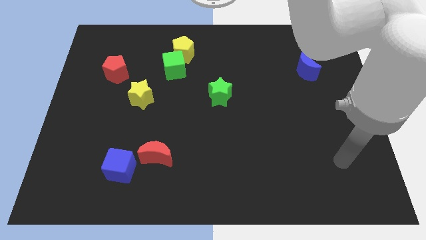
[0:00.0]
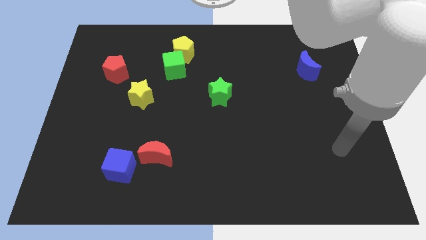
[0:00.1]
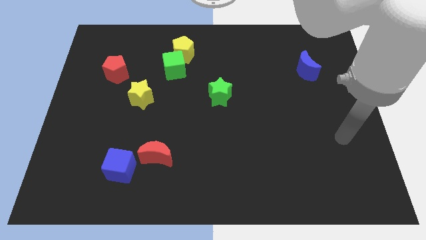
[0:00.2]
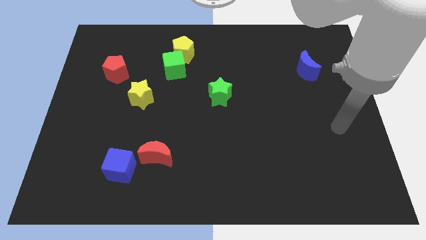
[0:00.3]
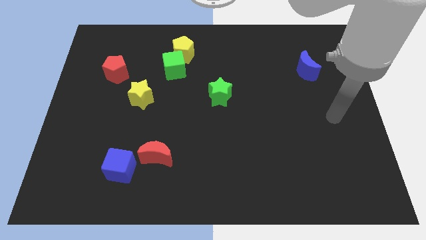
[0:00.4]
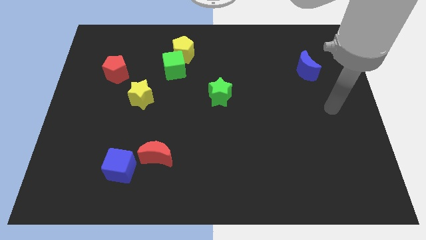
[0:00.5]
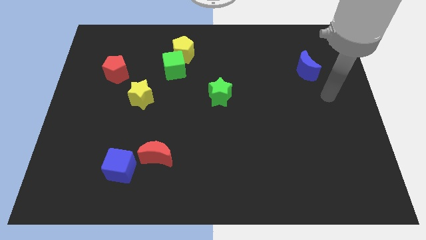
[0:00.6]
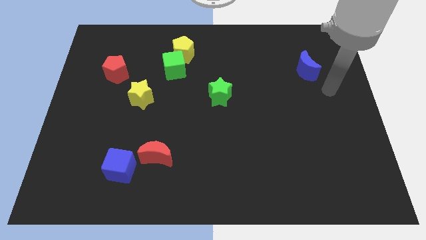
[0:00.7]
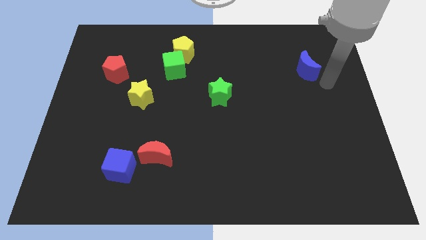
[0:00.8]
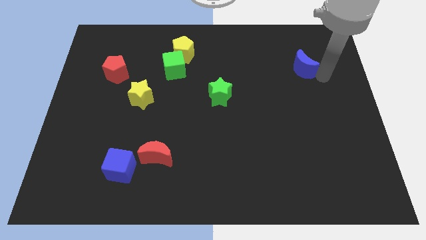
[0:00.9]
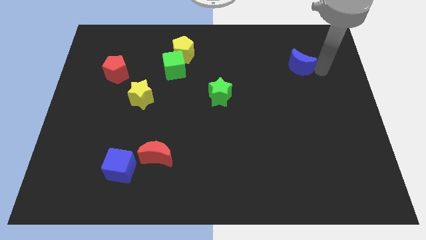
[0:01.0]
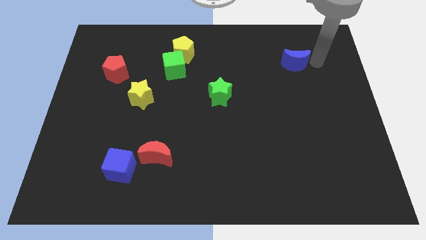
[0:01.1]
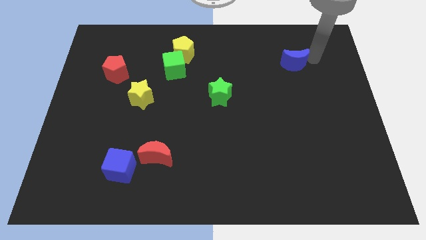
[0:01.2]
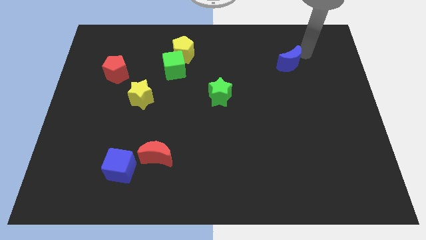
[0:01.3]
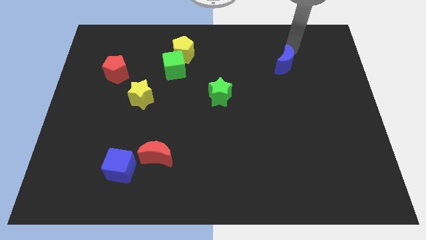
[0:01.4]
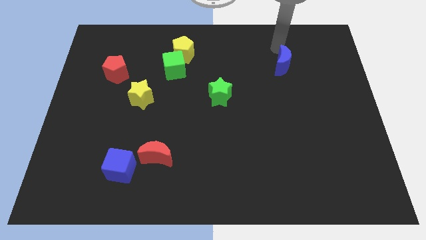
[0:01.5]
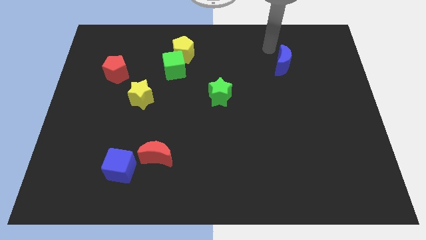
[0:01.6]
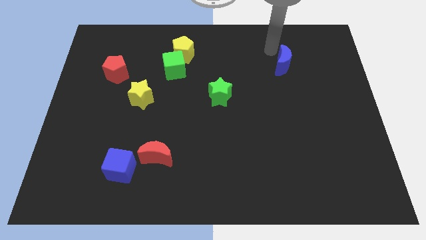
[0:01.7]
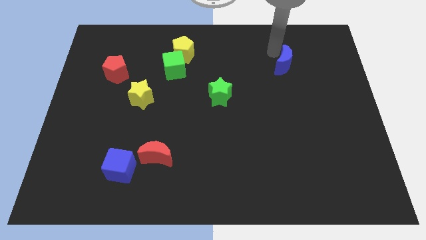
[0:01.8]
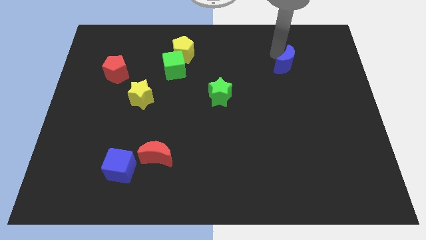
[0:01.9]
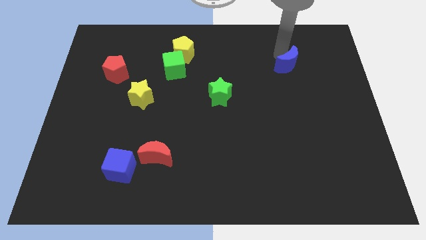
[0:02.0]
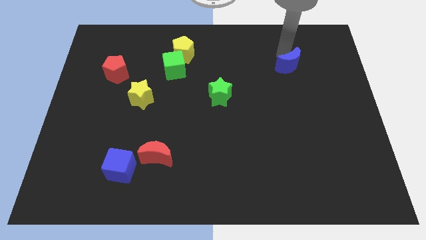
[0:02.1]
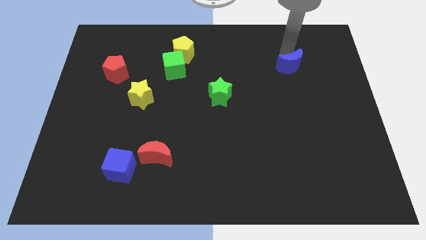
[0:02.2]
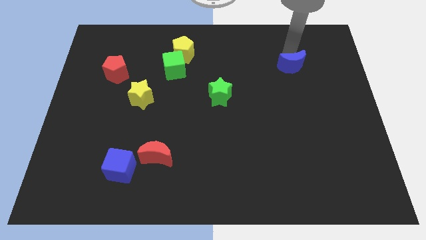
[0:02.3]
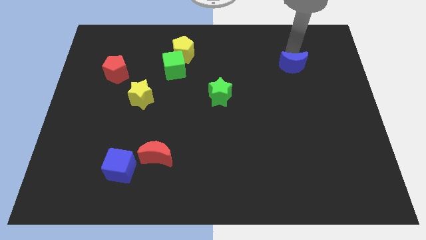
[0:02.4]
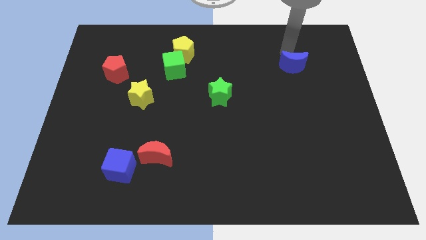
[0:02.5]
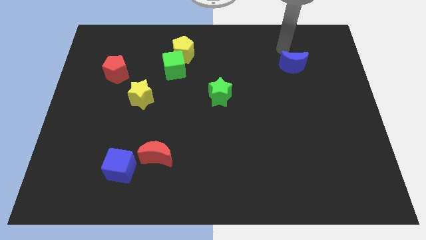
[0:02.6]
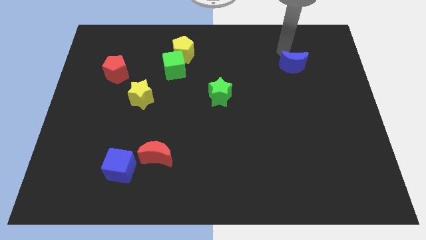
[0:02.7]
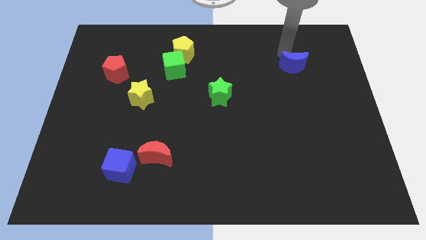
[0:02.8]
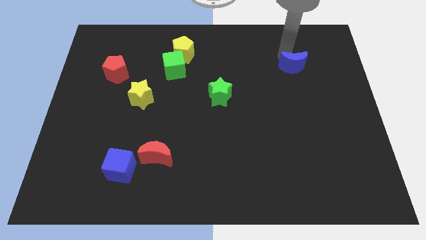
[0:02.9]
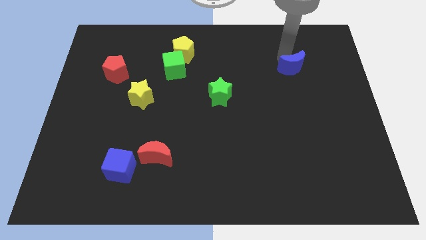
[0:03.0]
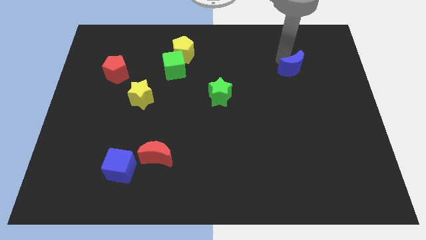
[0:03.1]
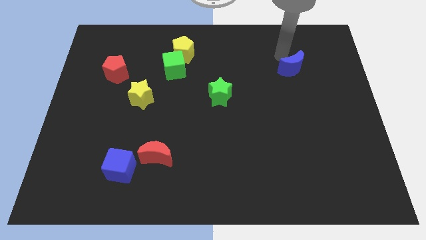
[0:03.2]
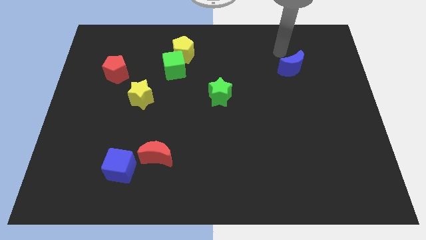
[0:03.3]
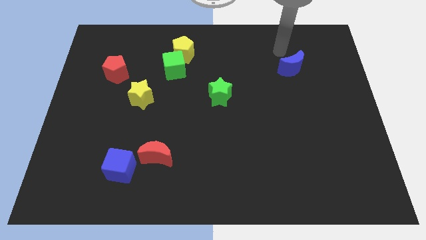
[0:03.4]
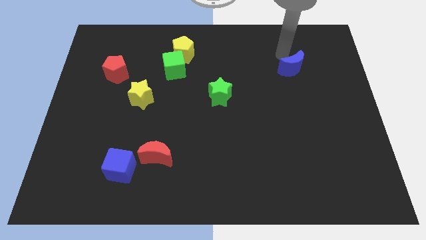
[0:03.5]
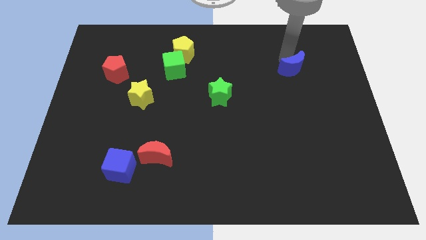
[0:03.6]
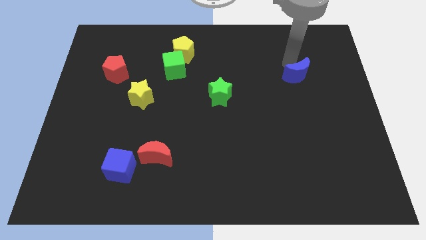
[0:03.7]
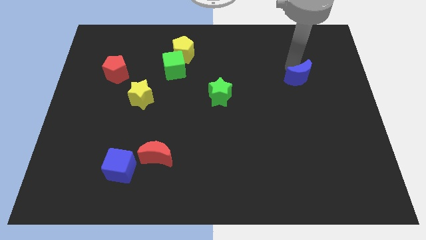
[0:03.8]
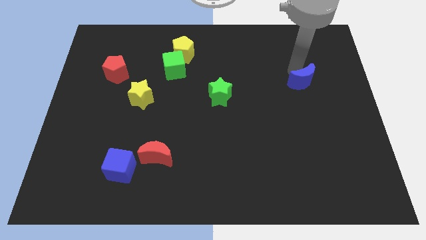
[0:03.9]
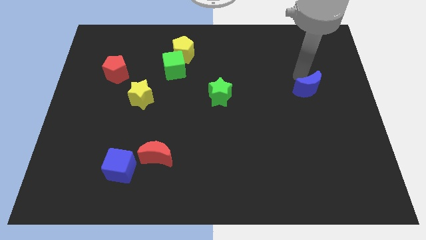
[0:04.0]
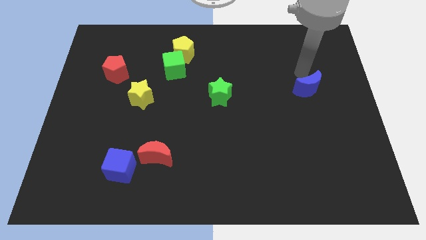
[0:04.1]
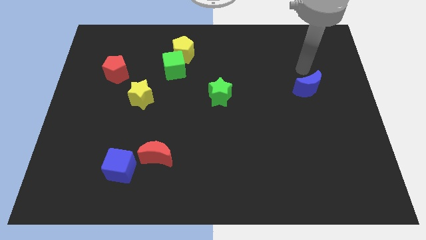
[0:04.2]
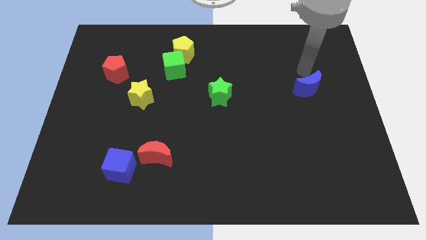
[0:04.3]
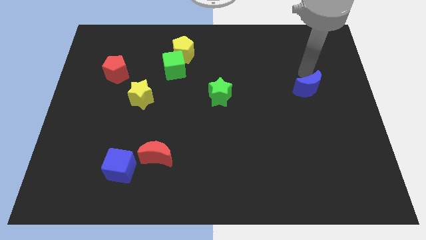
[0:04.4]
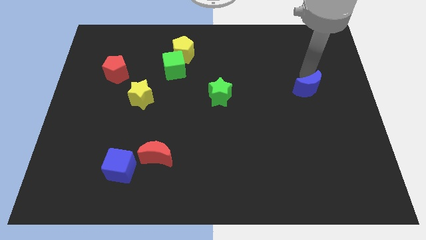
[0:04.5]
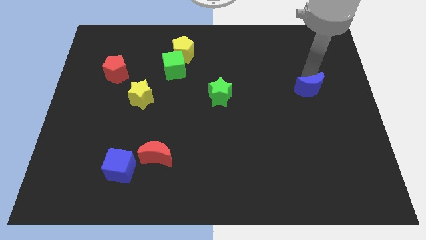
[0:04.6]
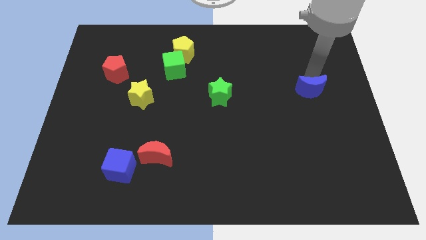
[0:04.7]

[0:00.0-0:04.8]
push the blue moon down a little

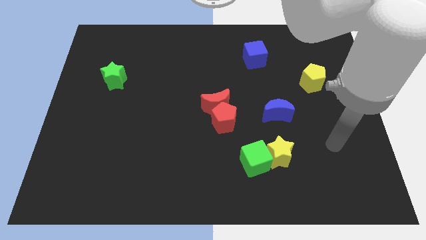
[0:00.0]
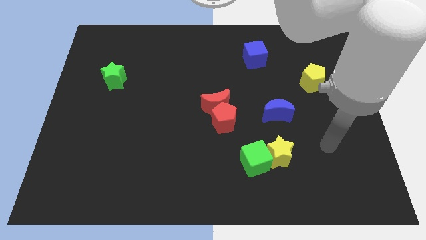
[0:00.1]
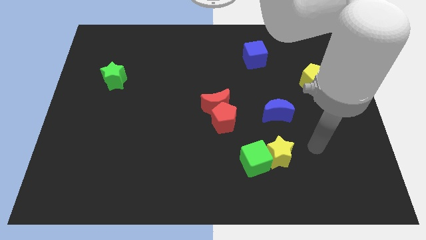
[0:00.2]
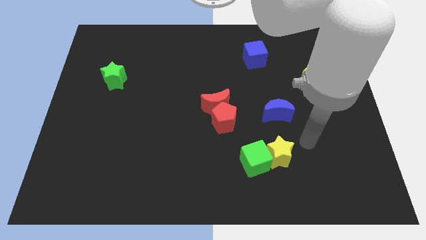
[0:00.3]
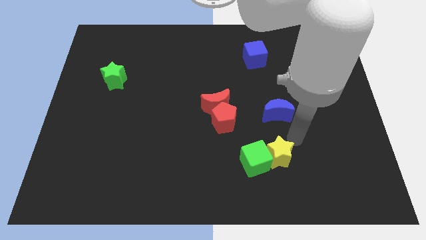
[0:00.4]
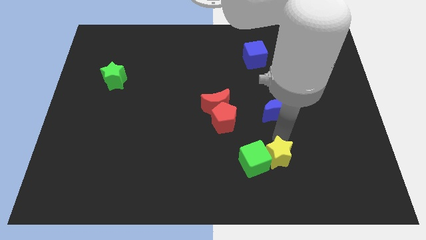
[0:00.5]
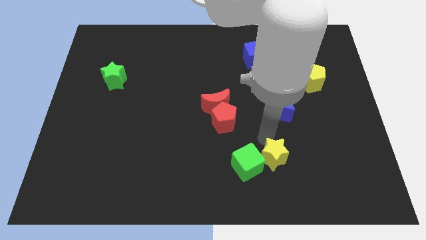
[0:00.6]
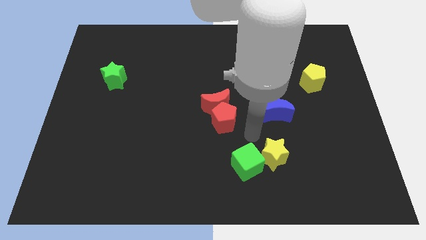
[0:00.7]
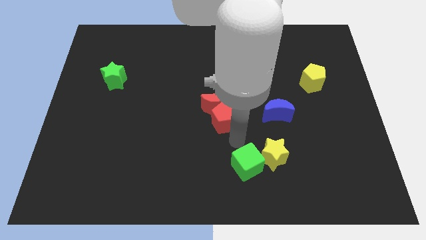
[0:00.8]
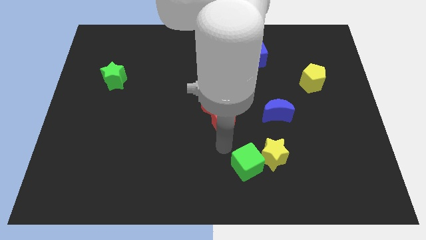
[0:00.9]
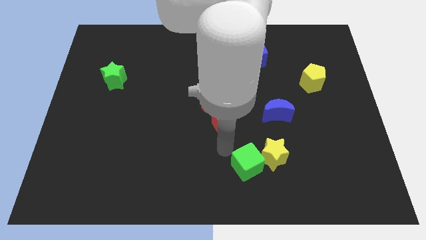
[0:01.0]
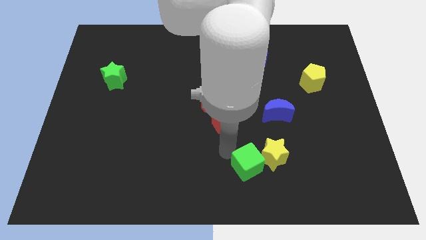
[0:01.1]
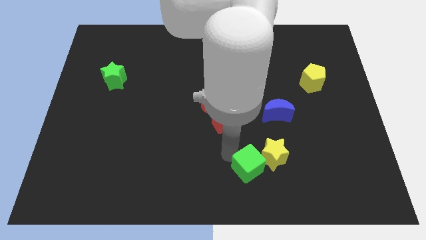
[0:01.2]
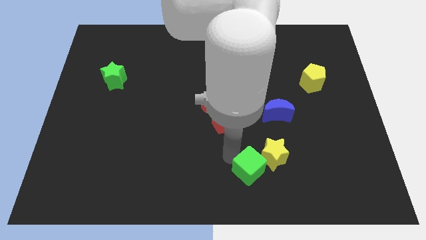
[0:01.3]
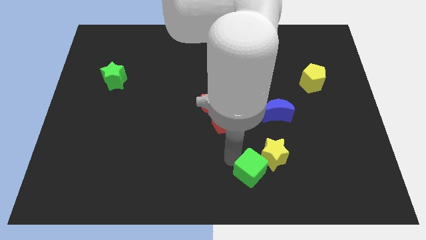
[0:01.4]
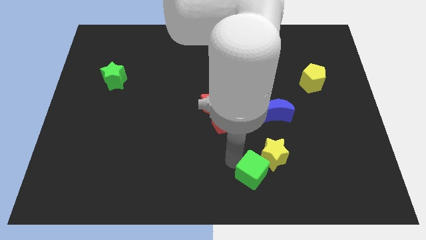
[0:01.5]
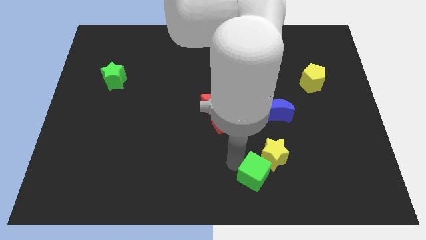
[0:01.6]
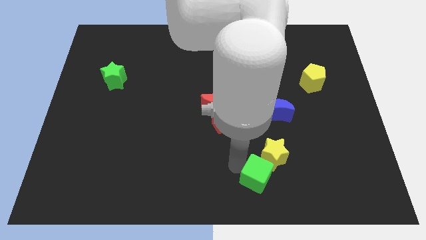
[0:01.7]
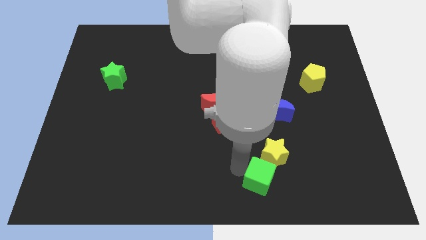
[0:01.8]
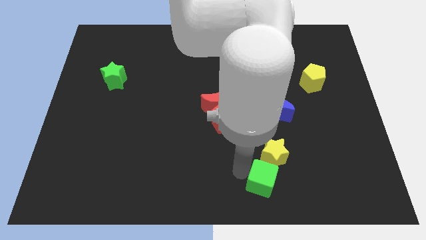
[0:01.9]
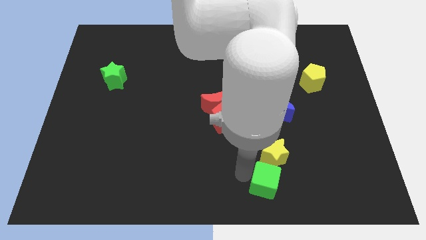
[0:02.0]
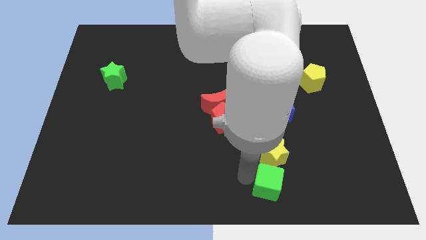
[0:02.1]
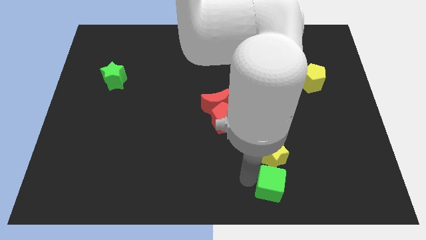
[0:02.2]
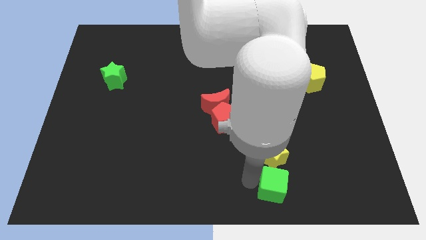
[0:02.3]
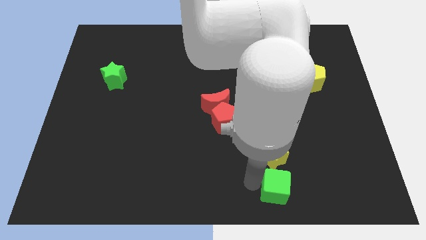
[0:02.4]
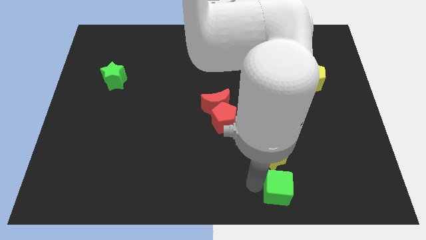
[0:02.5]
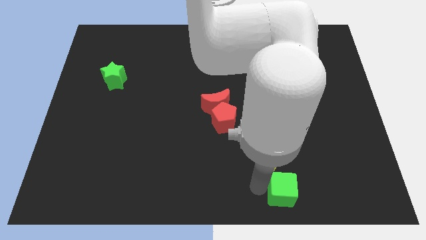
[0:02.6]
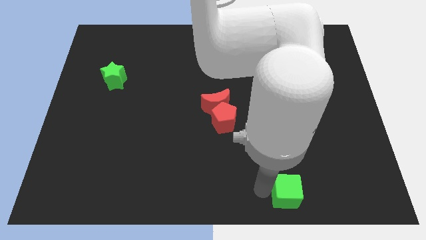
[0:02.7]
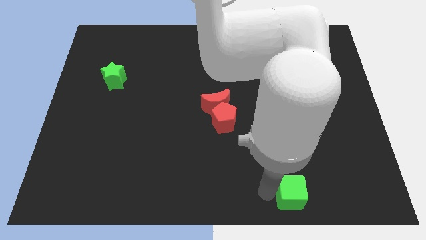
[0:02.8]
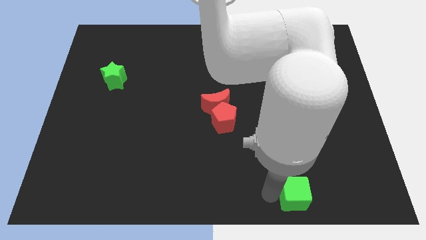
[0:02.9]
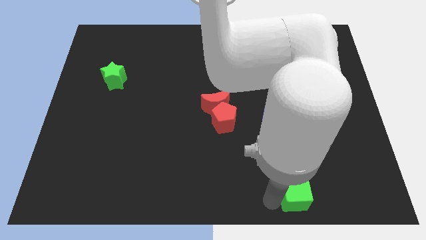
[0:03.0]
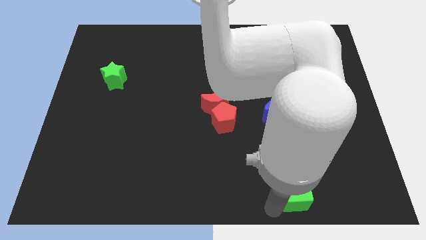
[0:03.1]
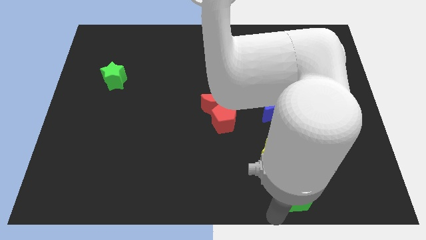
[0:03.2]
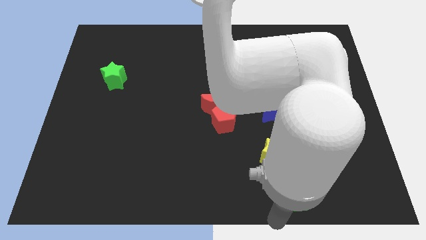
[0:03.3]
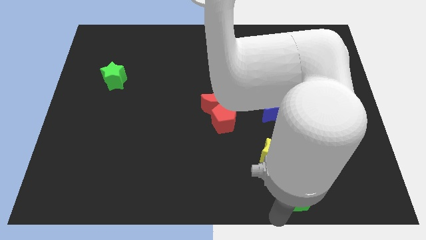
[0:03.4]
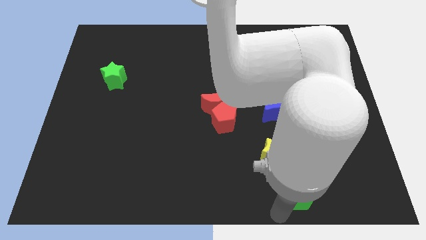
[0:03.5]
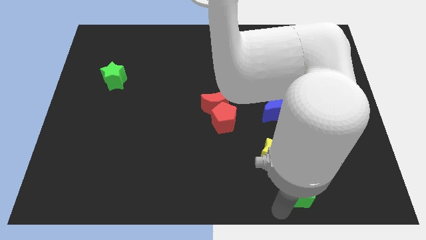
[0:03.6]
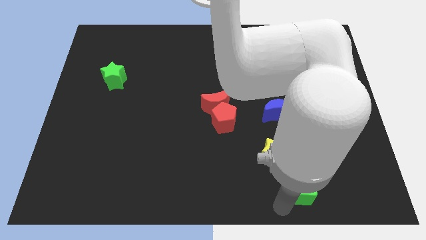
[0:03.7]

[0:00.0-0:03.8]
slightly push the green cube to the right
